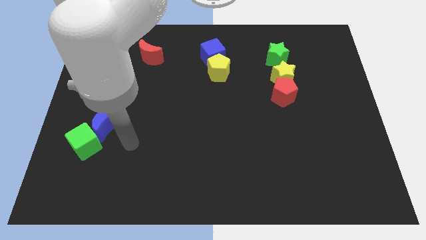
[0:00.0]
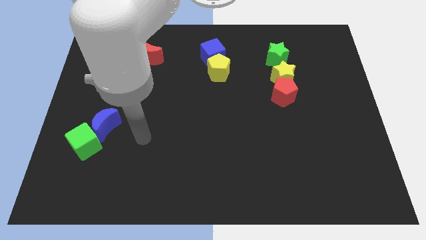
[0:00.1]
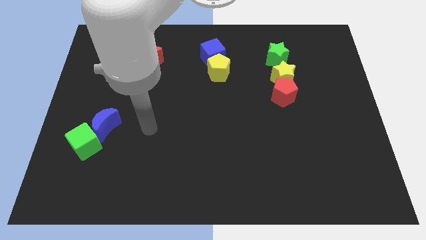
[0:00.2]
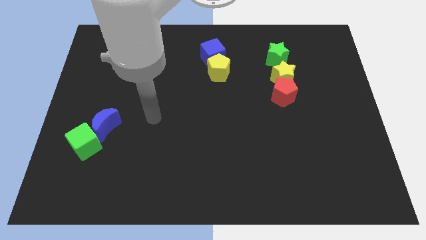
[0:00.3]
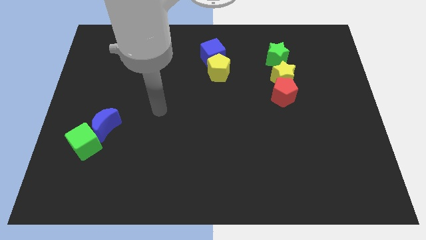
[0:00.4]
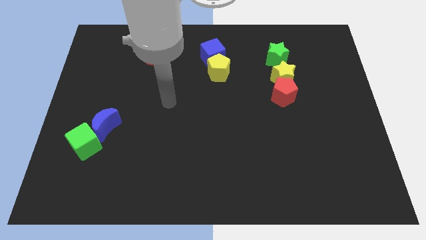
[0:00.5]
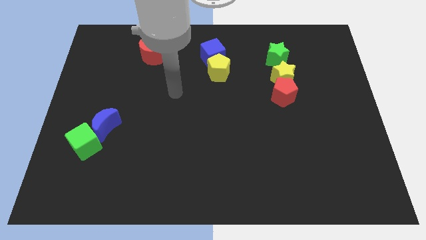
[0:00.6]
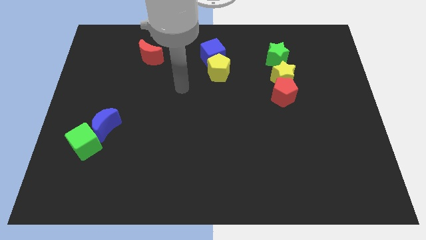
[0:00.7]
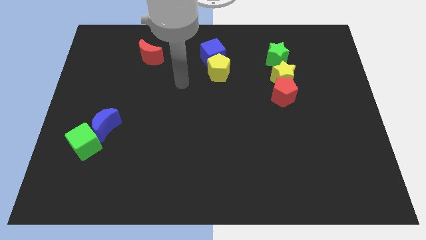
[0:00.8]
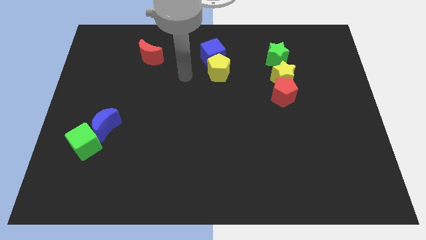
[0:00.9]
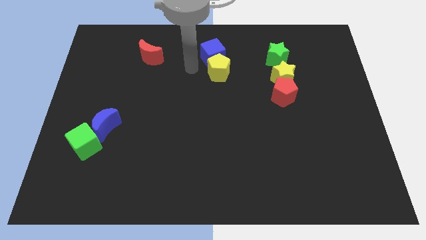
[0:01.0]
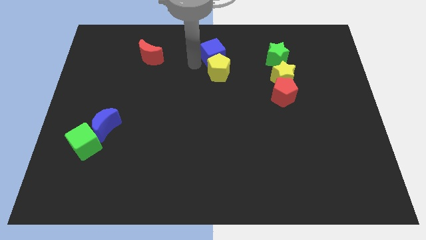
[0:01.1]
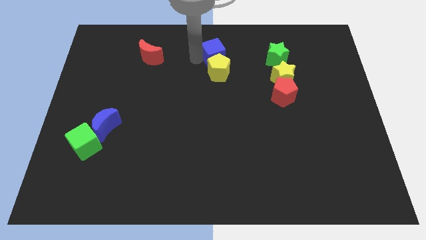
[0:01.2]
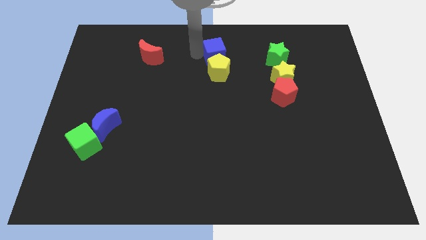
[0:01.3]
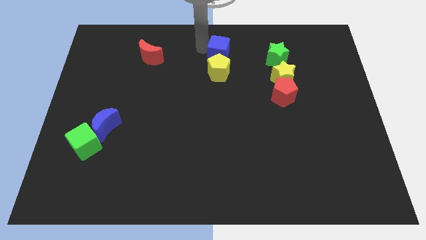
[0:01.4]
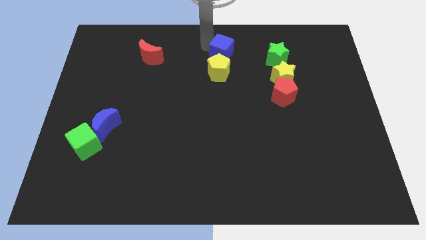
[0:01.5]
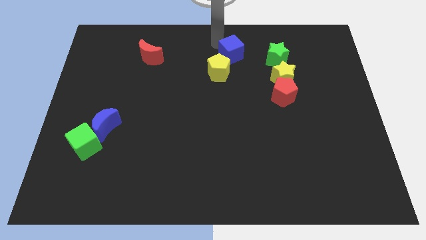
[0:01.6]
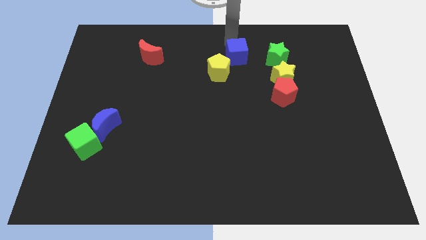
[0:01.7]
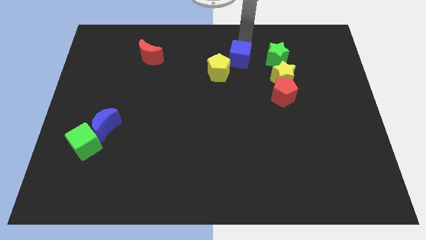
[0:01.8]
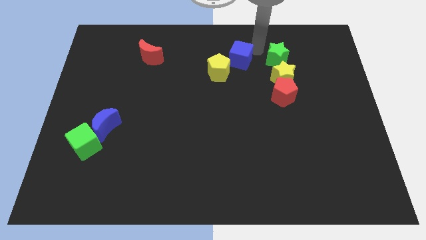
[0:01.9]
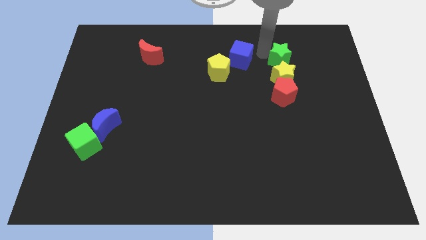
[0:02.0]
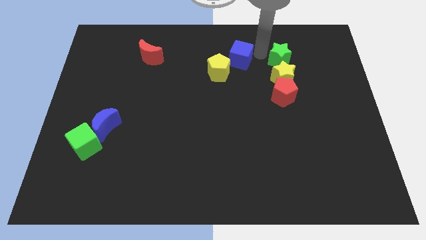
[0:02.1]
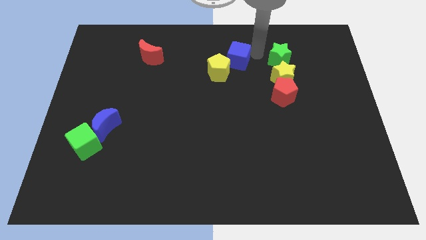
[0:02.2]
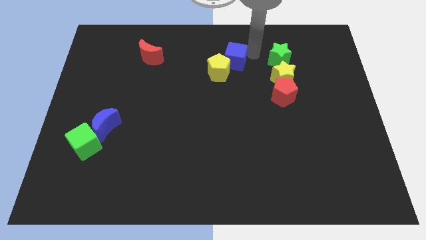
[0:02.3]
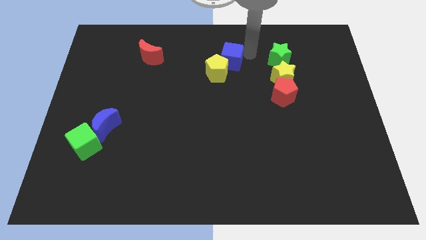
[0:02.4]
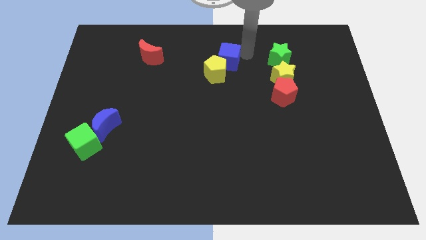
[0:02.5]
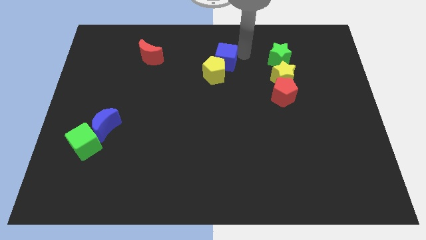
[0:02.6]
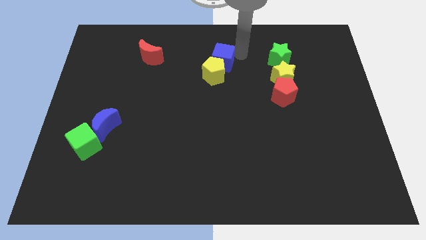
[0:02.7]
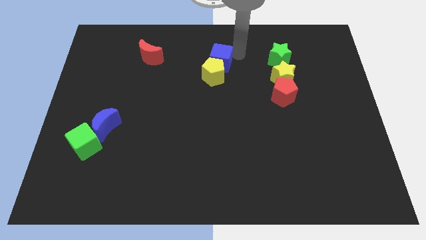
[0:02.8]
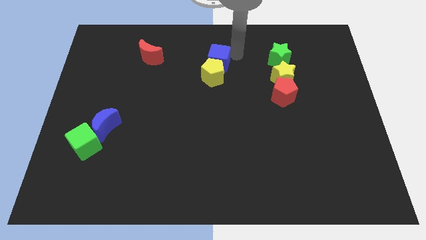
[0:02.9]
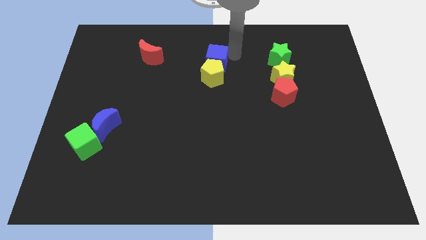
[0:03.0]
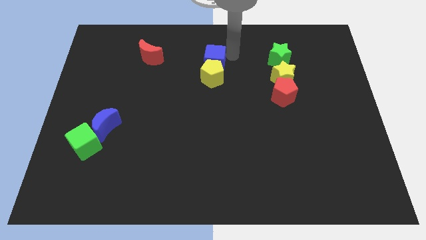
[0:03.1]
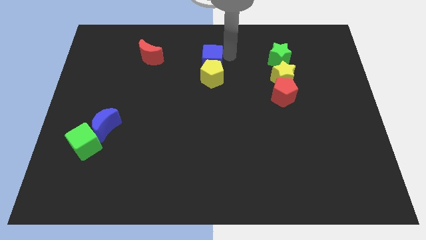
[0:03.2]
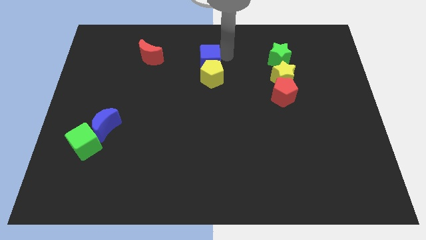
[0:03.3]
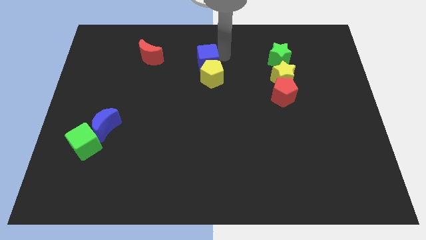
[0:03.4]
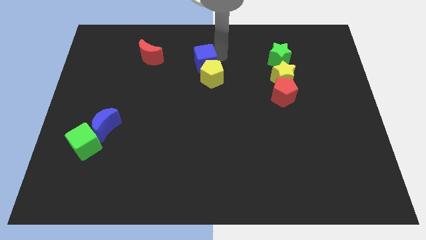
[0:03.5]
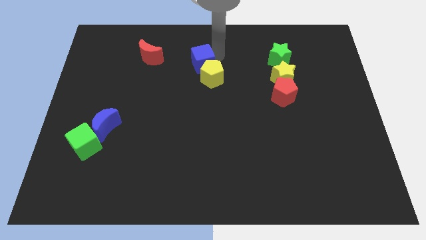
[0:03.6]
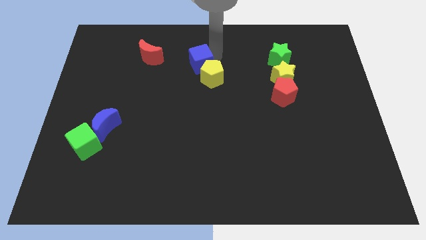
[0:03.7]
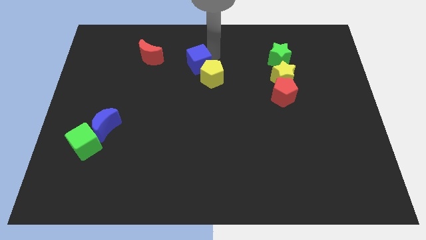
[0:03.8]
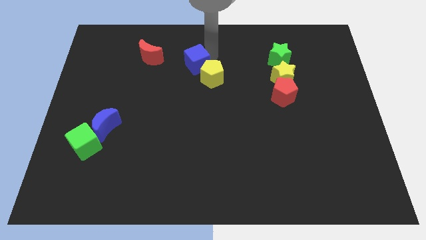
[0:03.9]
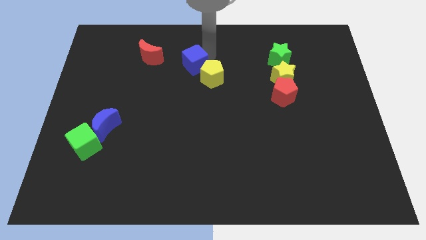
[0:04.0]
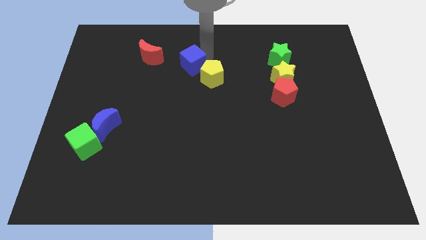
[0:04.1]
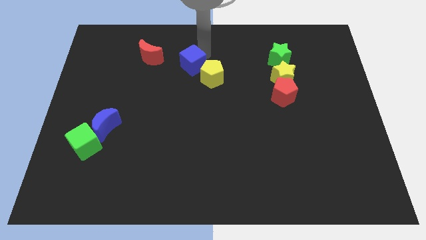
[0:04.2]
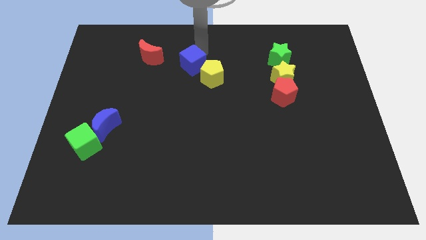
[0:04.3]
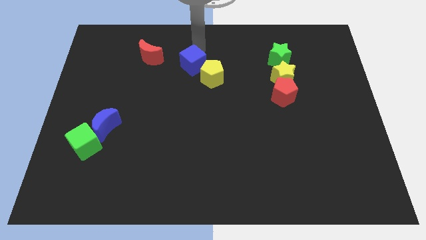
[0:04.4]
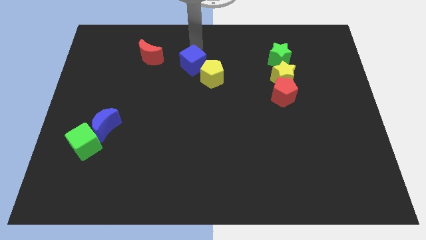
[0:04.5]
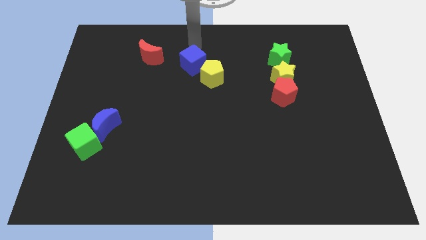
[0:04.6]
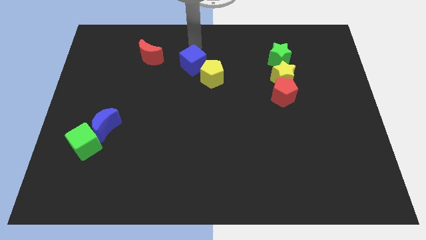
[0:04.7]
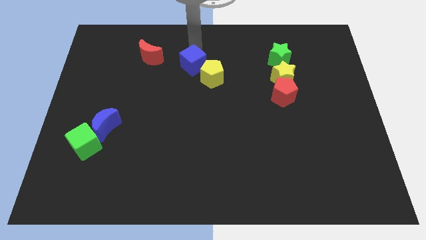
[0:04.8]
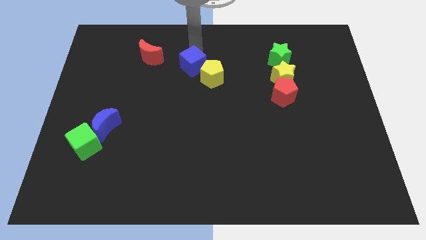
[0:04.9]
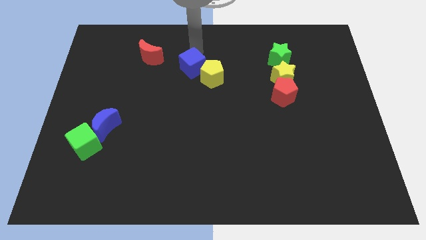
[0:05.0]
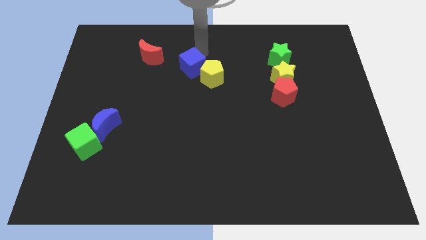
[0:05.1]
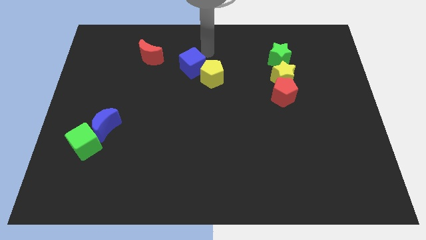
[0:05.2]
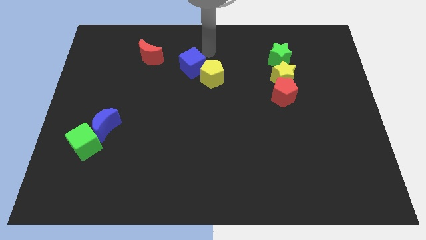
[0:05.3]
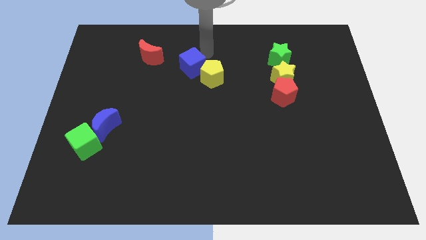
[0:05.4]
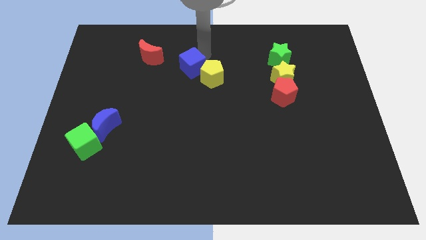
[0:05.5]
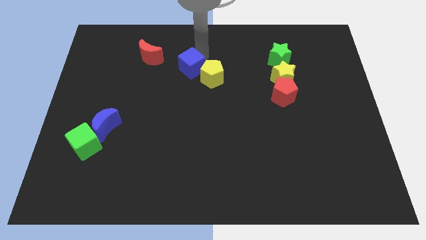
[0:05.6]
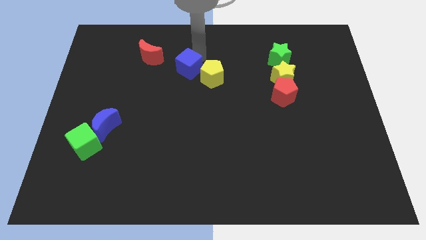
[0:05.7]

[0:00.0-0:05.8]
move the blue cube downwards and then left a little

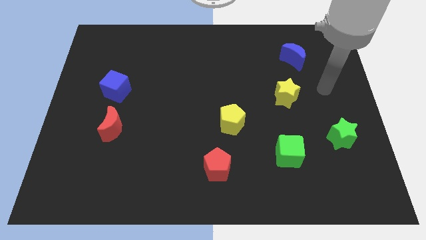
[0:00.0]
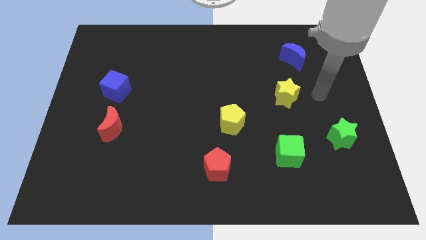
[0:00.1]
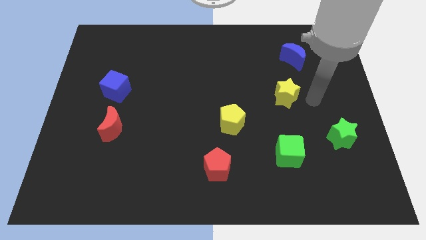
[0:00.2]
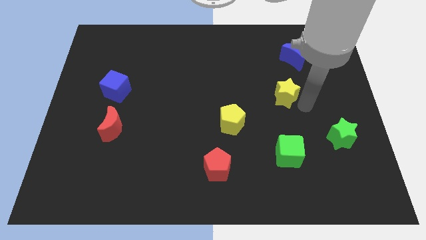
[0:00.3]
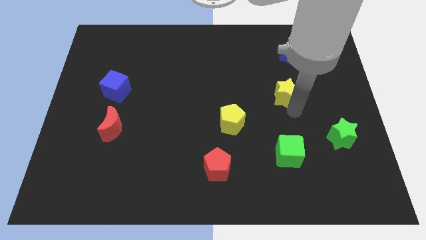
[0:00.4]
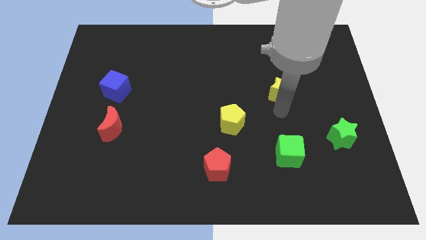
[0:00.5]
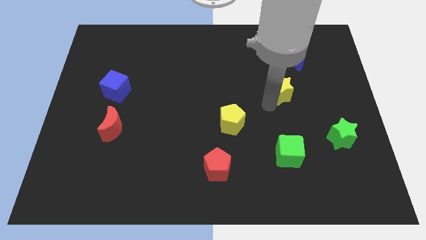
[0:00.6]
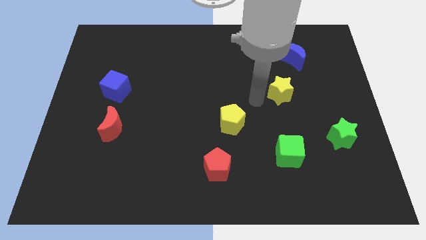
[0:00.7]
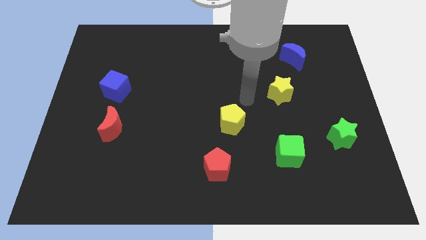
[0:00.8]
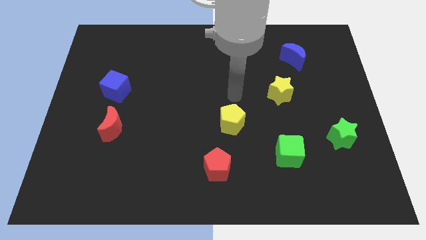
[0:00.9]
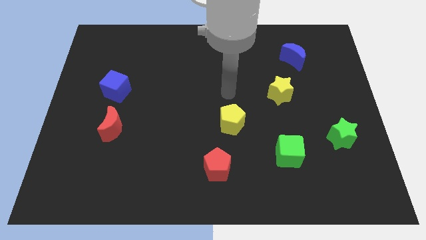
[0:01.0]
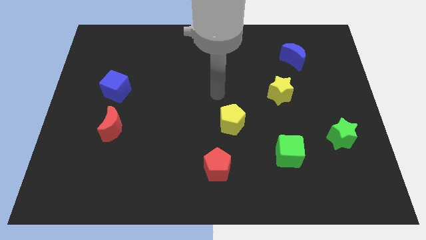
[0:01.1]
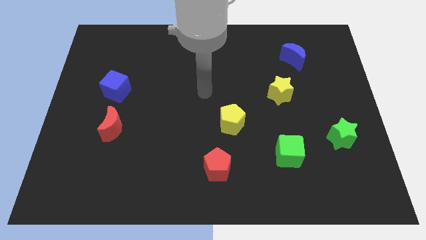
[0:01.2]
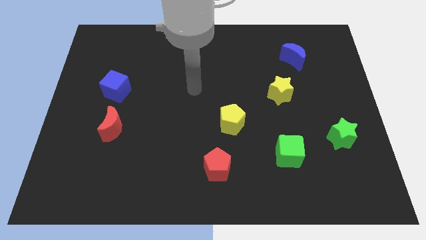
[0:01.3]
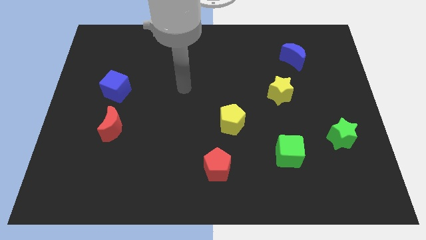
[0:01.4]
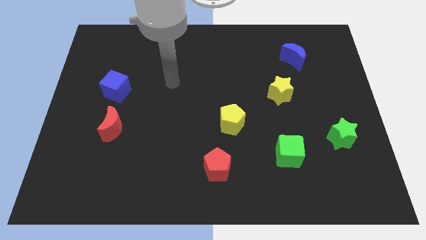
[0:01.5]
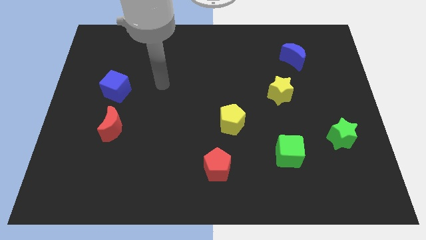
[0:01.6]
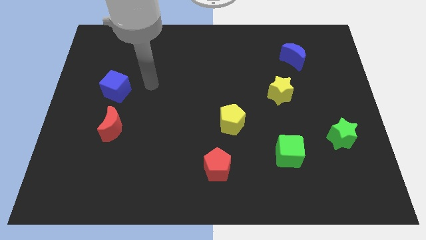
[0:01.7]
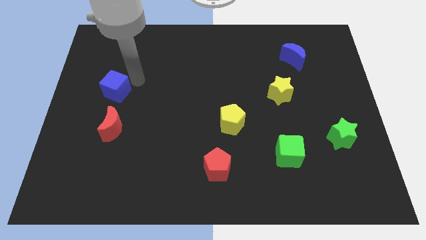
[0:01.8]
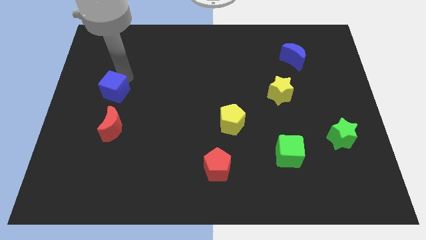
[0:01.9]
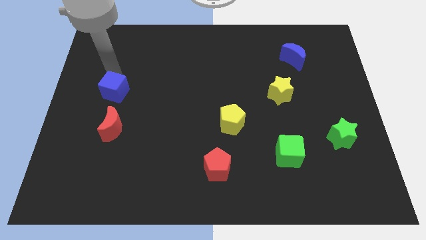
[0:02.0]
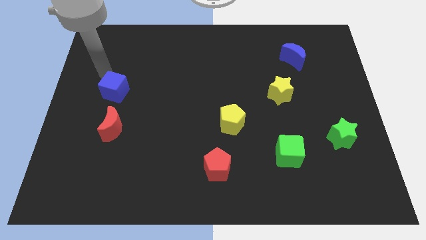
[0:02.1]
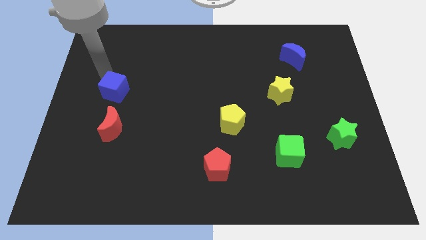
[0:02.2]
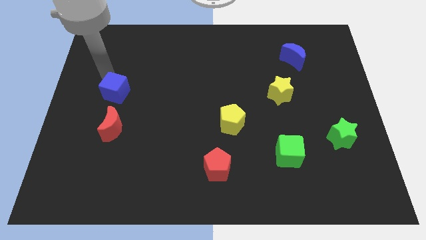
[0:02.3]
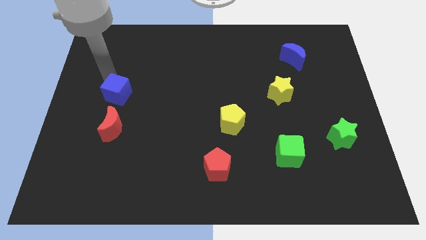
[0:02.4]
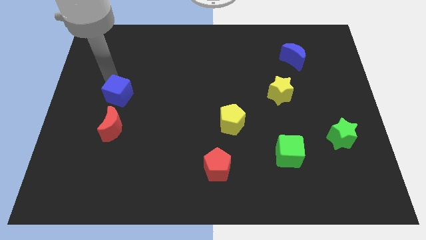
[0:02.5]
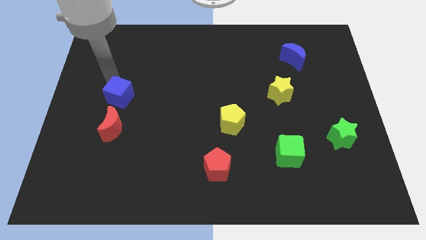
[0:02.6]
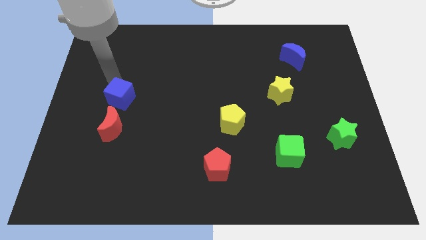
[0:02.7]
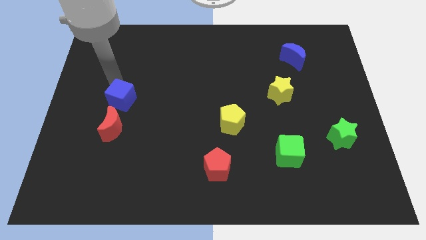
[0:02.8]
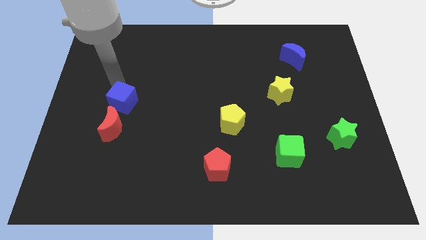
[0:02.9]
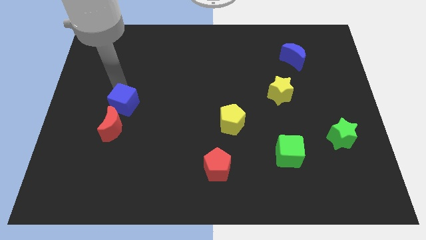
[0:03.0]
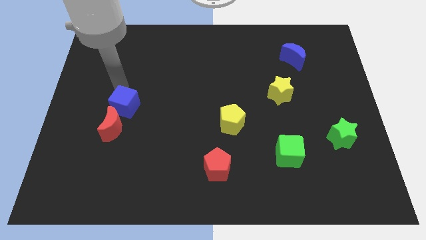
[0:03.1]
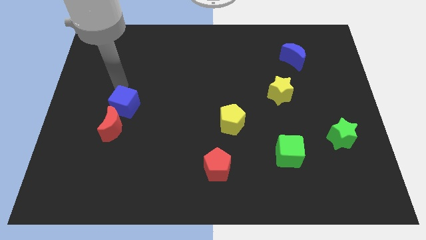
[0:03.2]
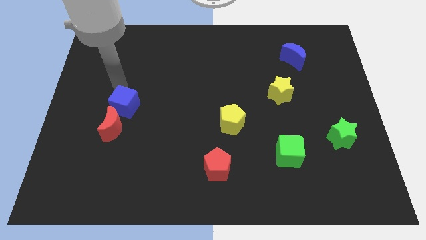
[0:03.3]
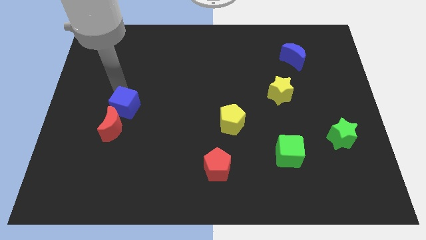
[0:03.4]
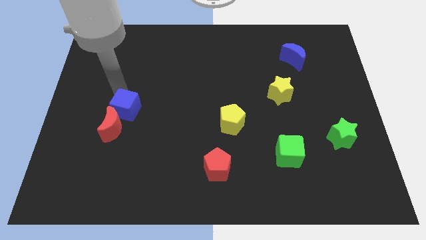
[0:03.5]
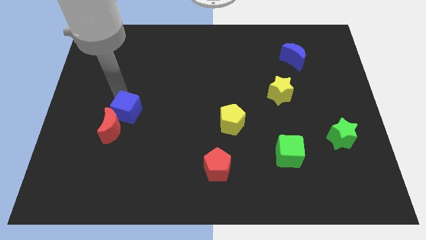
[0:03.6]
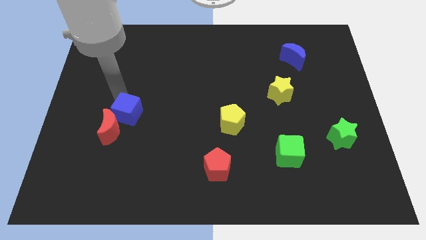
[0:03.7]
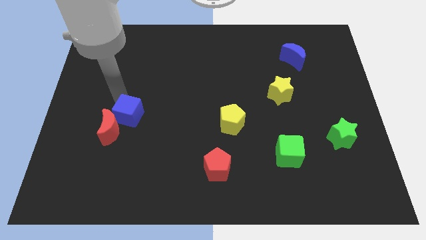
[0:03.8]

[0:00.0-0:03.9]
slightly push the blue cube downwards
